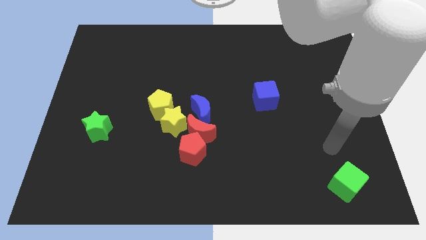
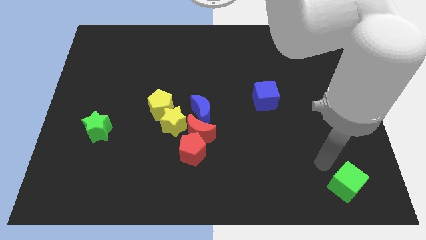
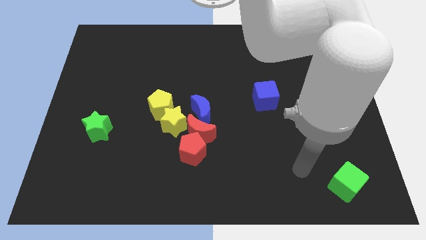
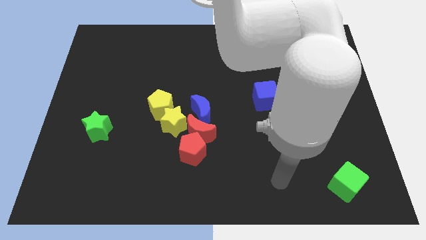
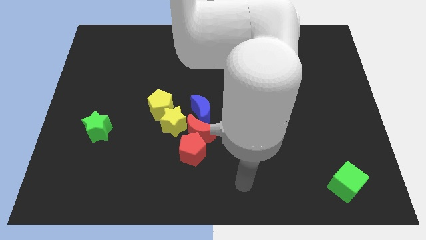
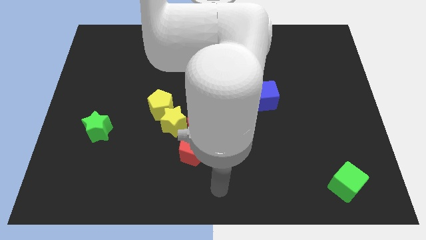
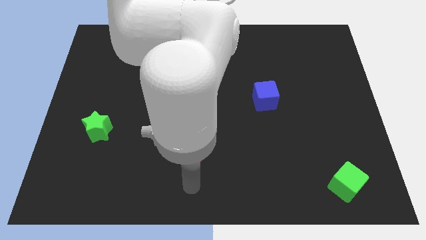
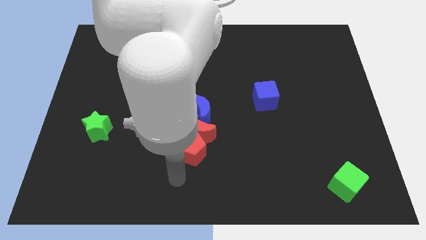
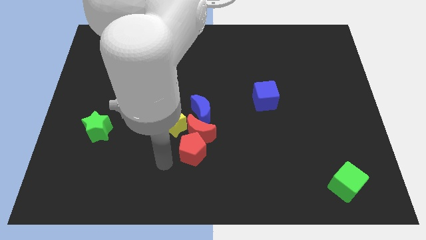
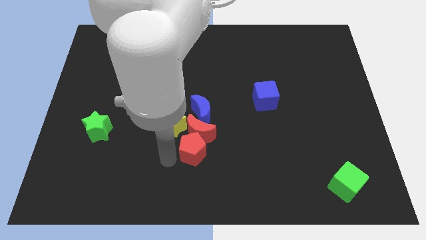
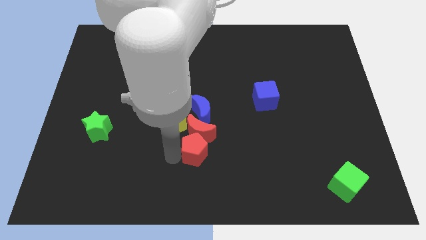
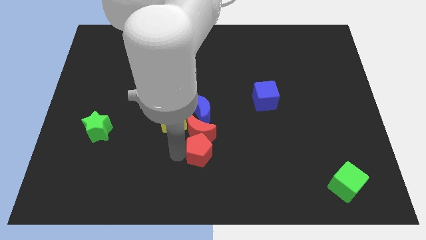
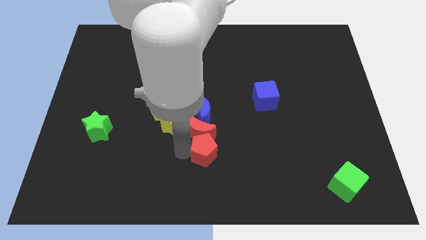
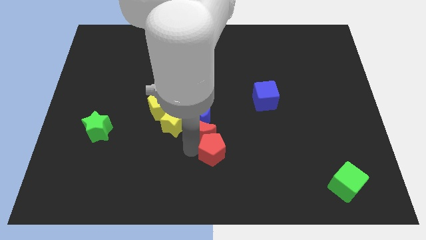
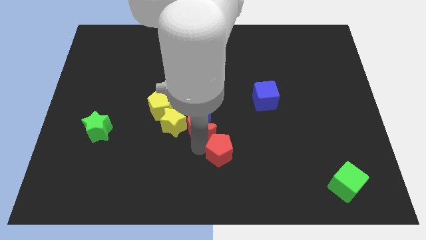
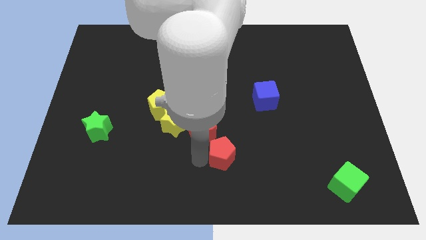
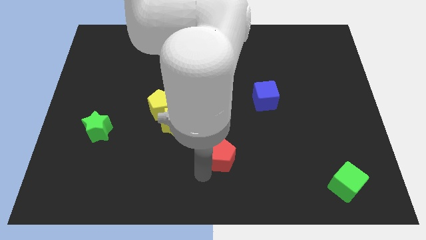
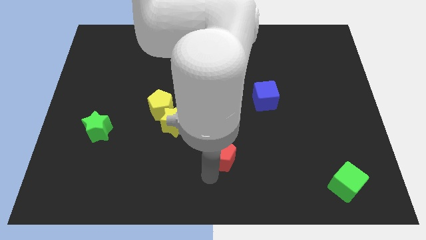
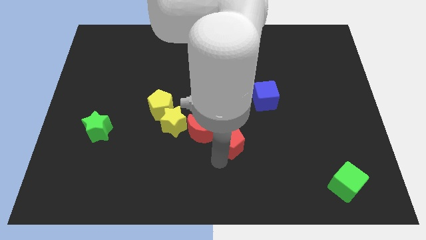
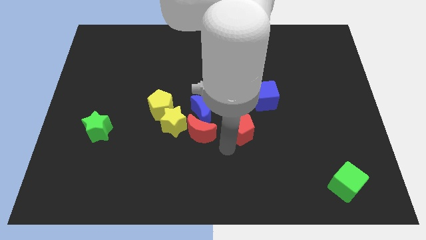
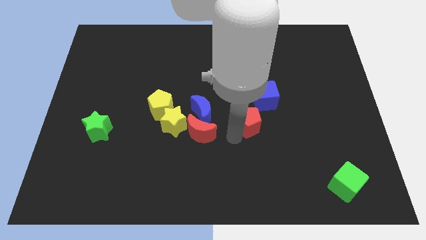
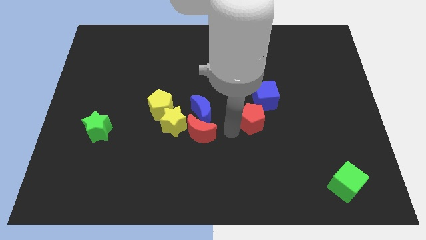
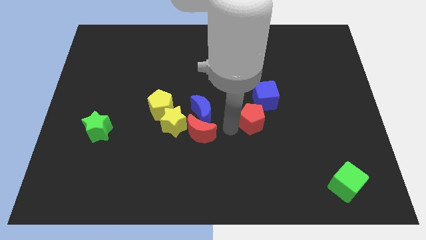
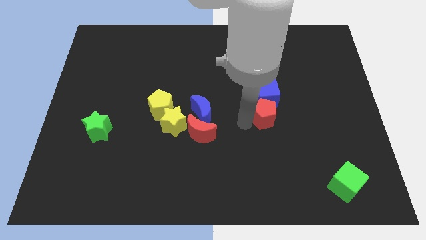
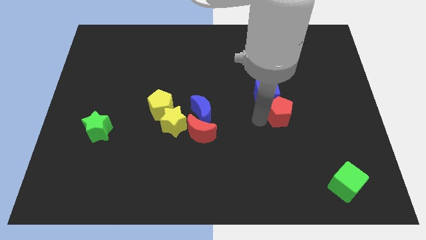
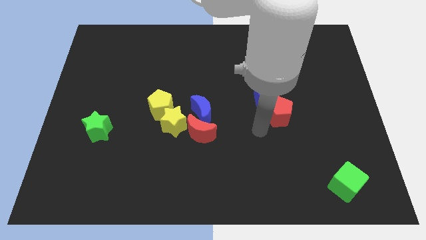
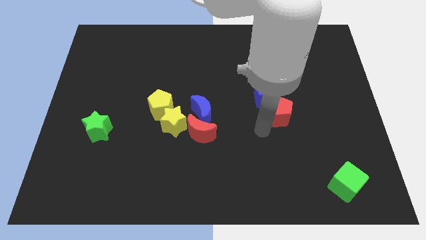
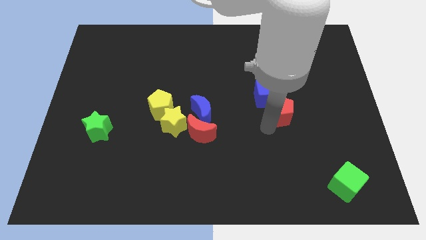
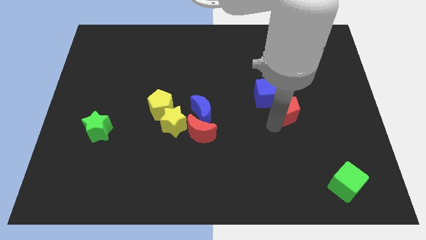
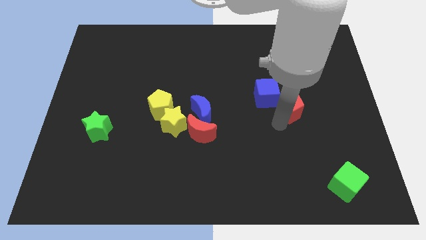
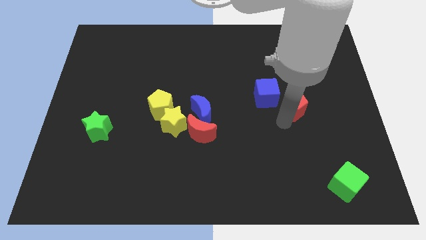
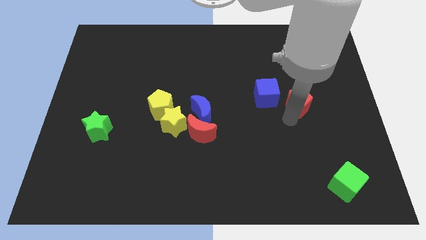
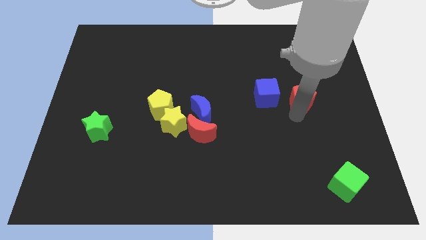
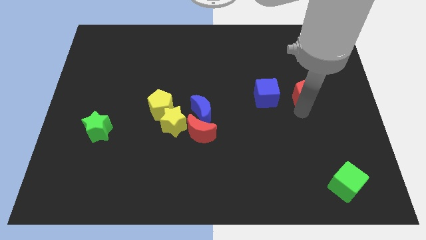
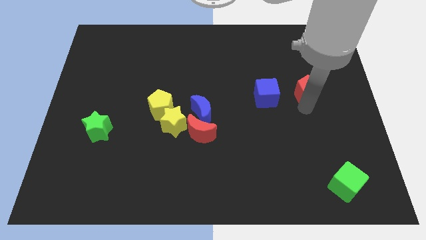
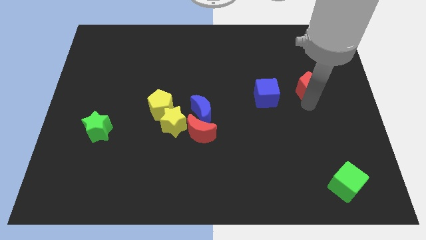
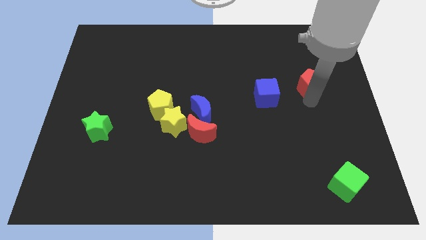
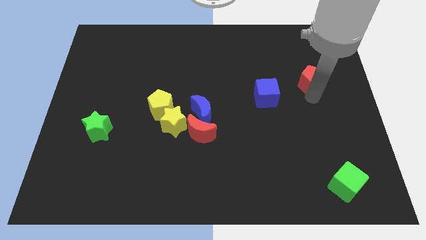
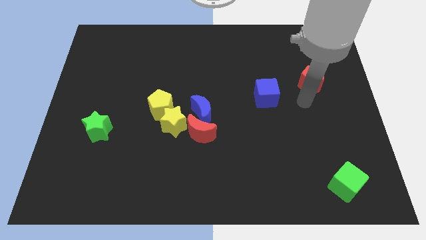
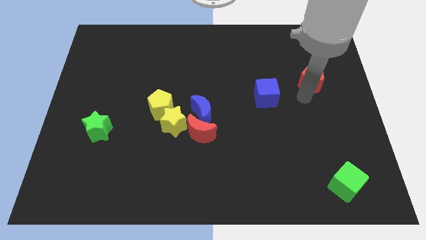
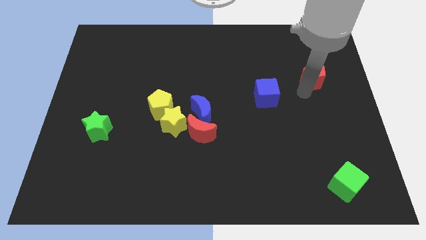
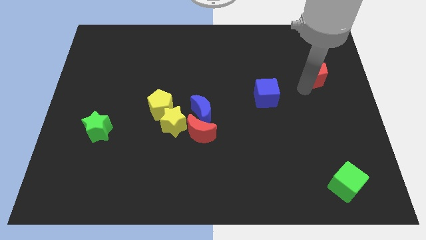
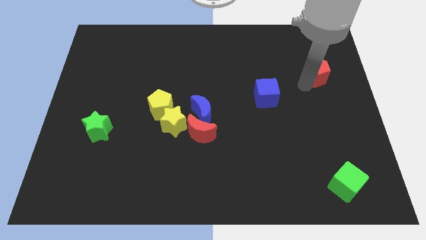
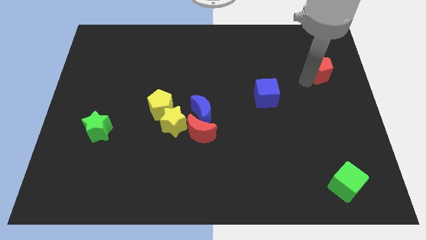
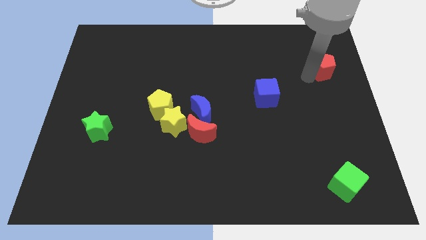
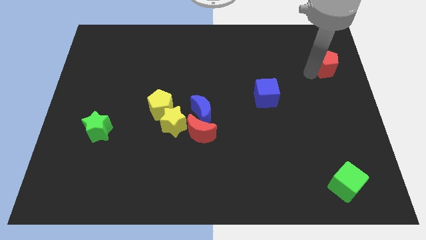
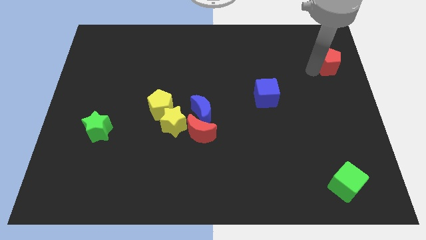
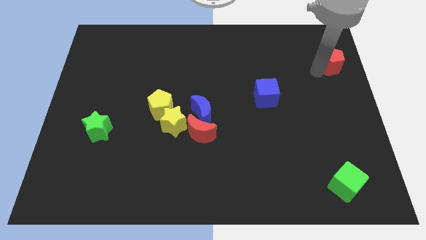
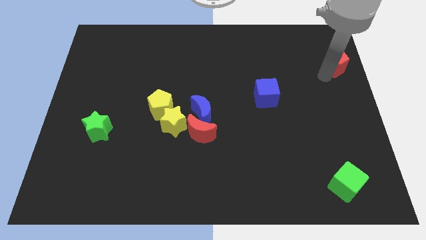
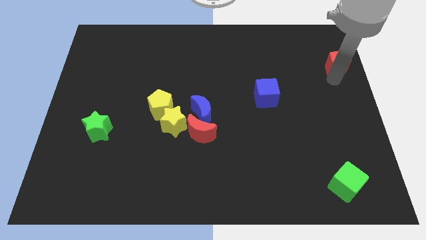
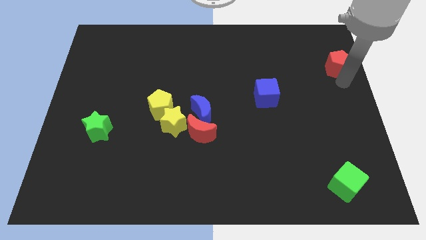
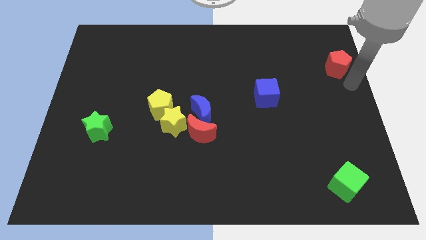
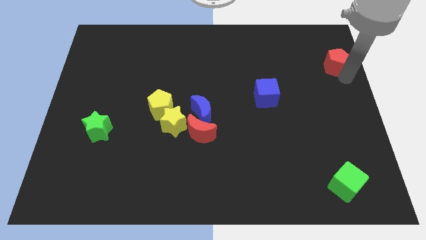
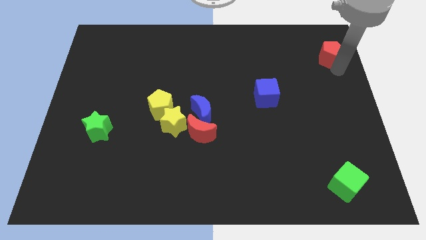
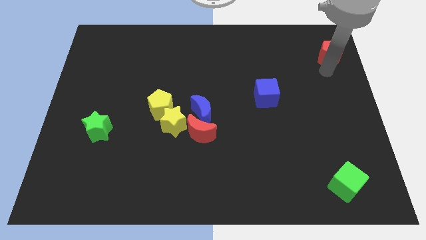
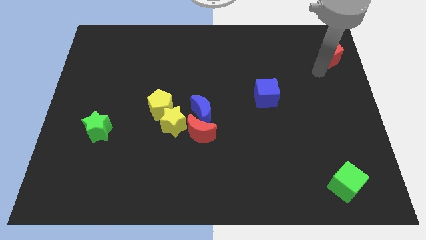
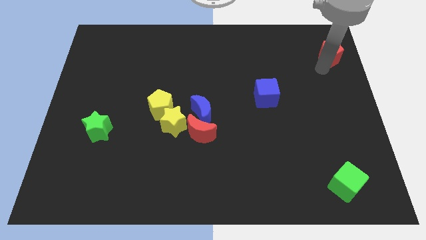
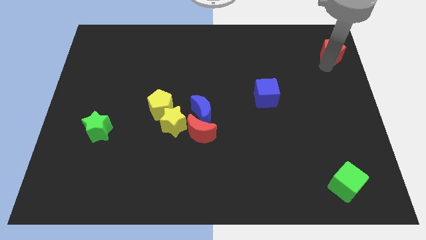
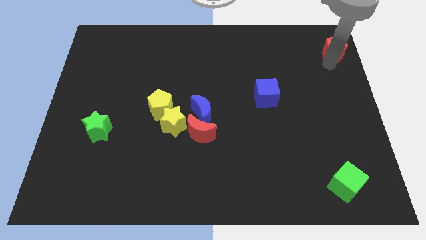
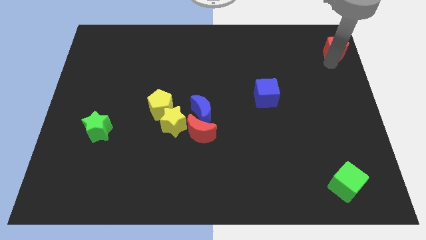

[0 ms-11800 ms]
slide the red pentagon to the top right of the board

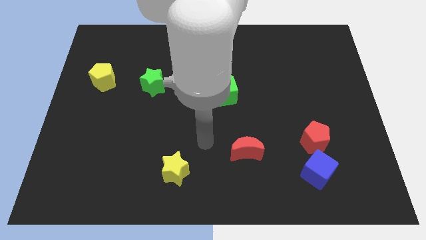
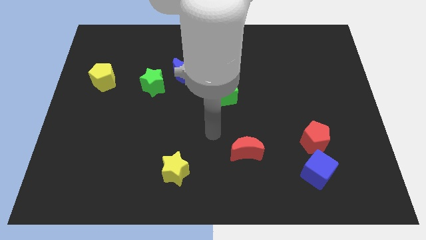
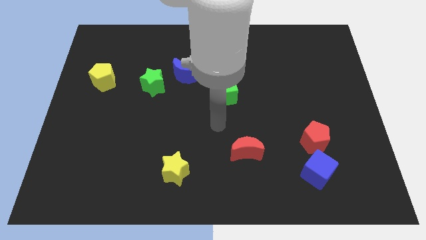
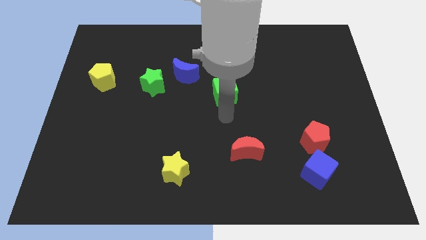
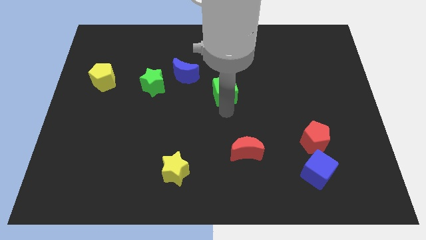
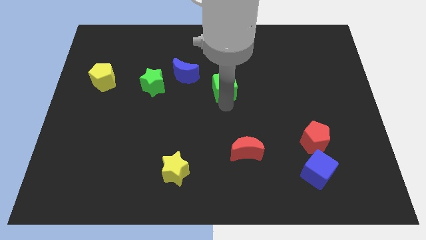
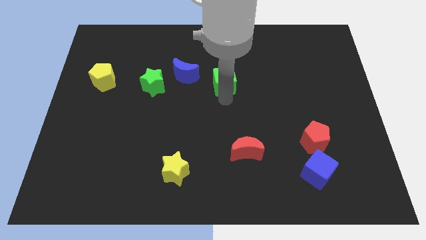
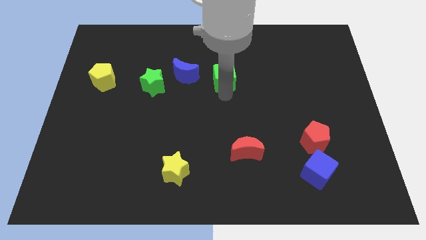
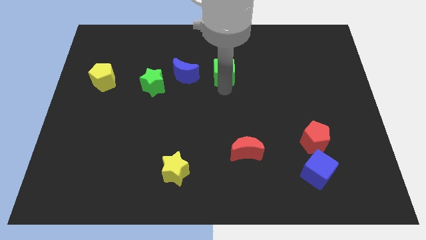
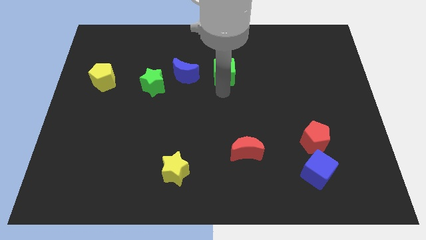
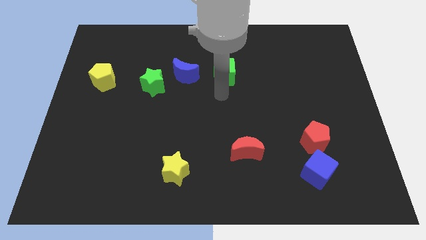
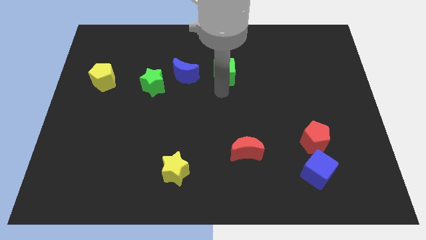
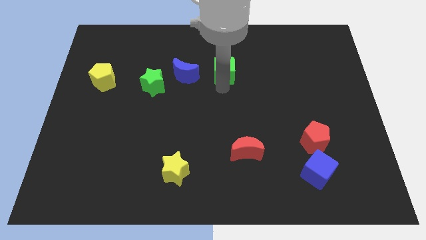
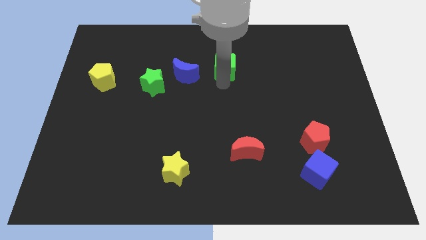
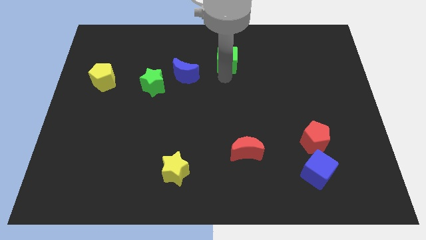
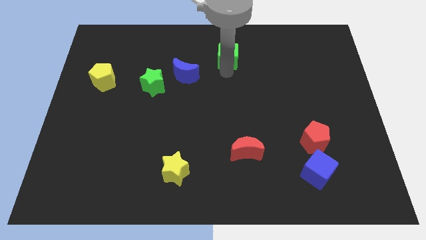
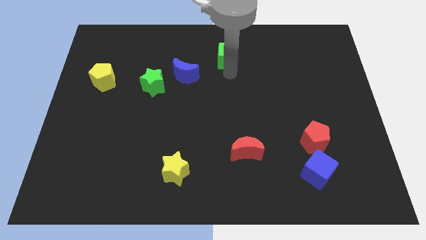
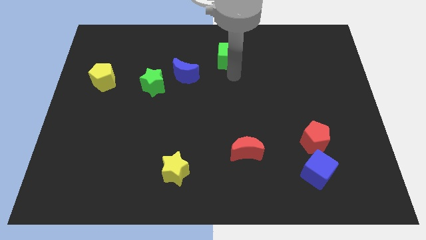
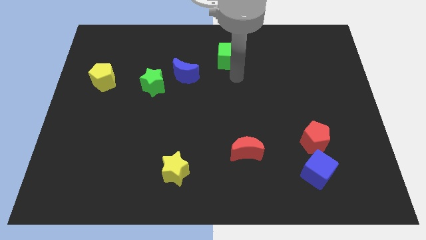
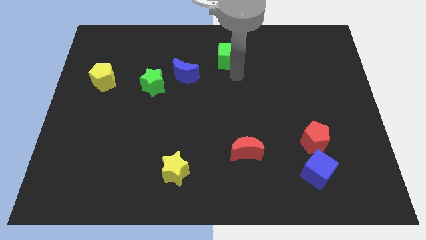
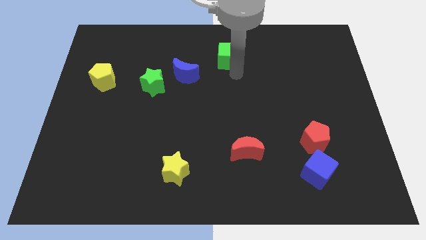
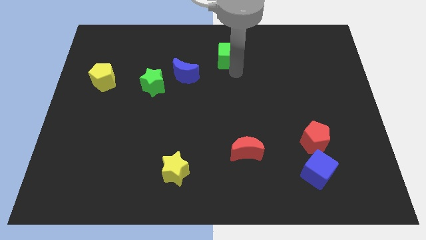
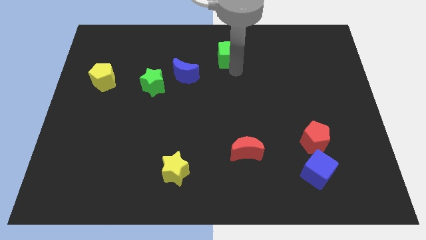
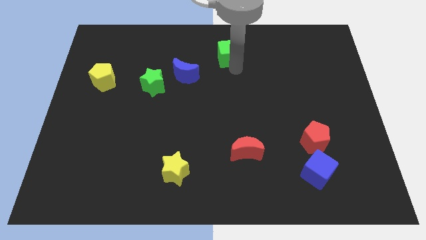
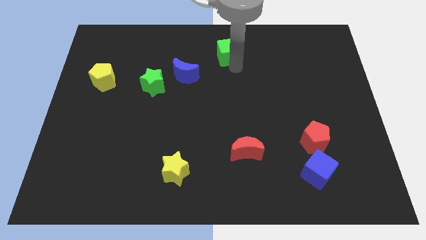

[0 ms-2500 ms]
put the green cube to the top side
